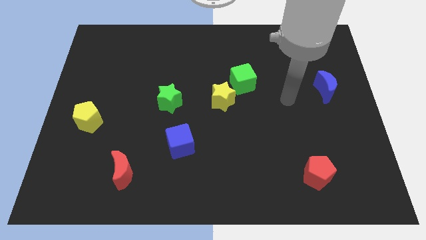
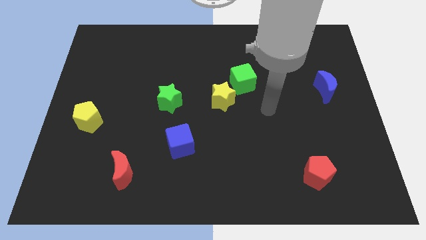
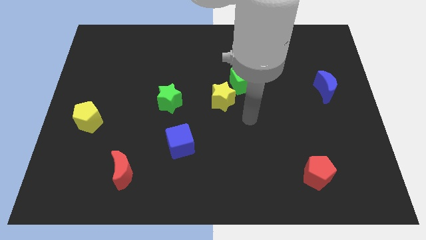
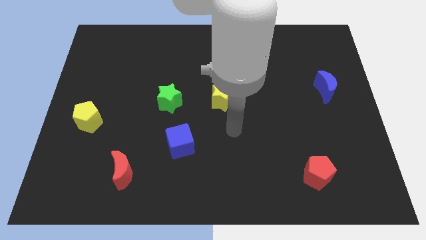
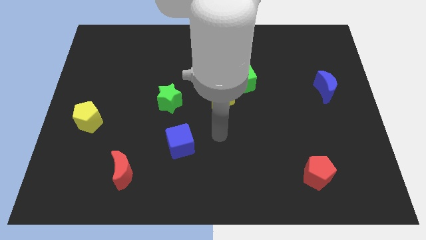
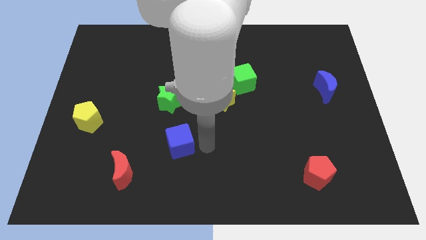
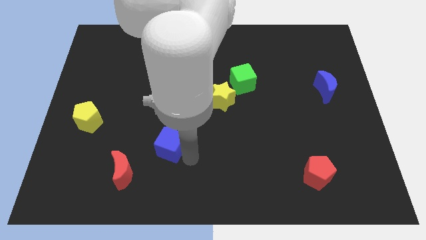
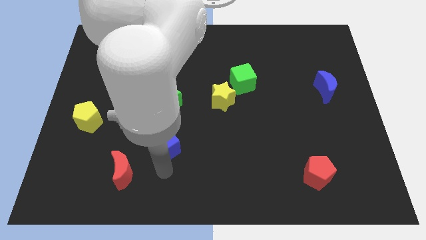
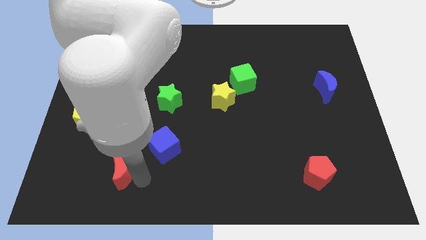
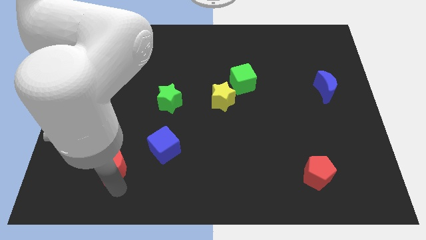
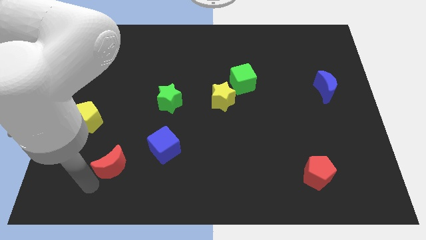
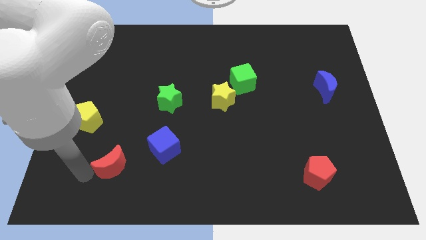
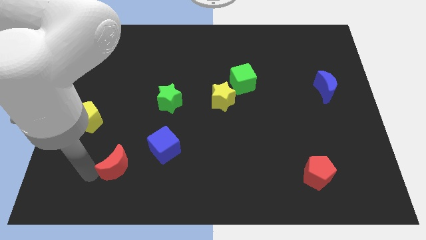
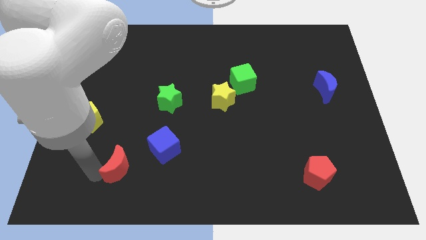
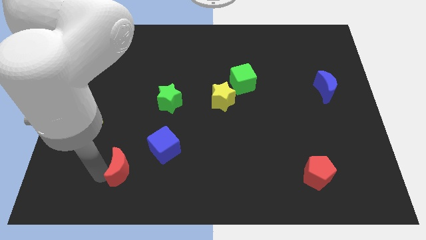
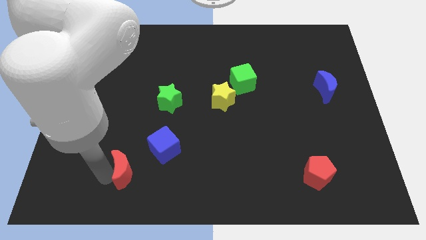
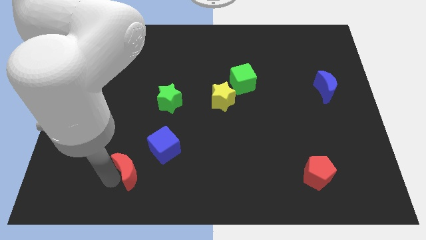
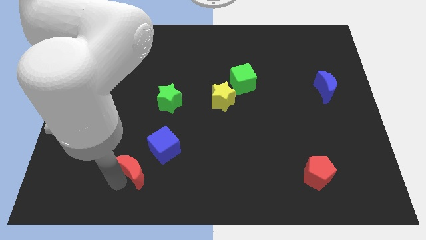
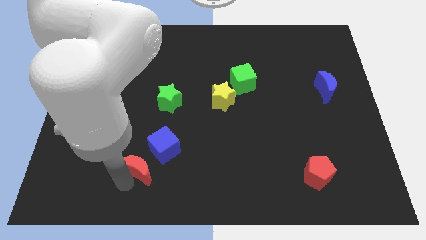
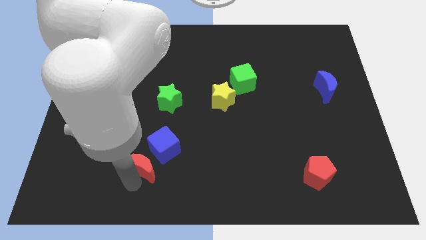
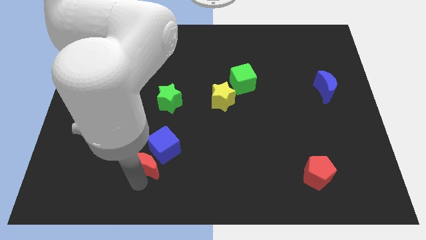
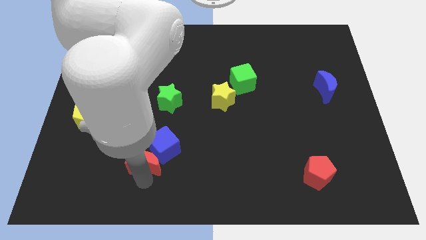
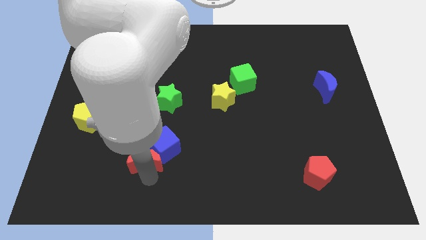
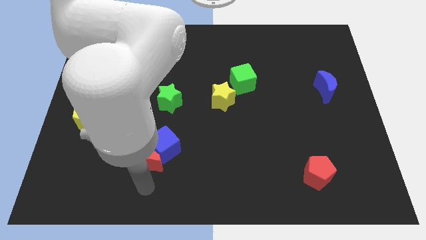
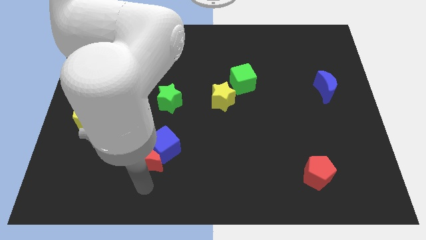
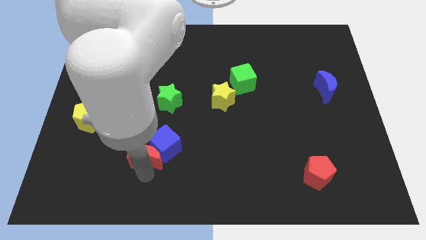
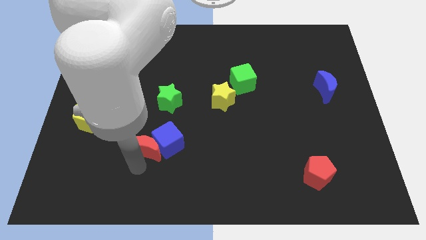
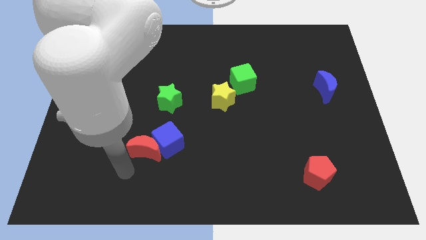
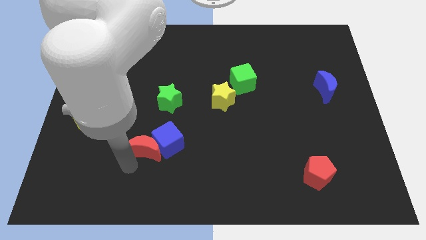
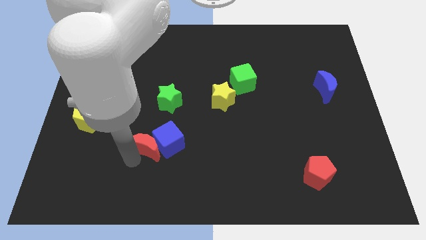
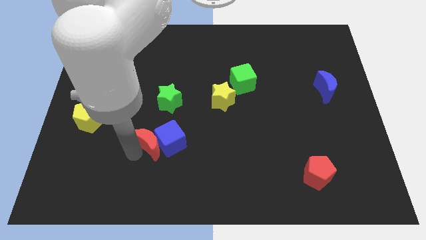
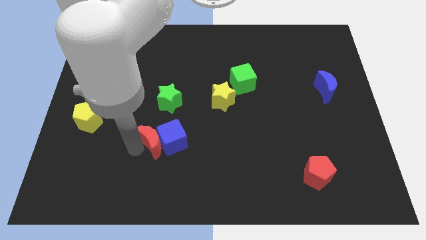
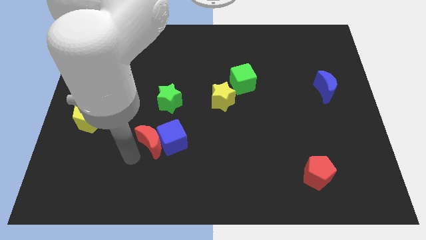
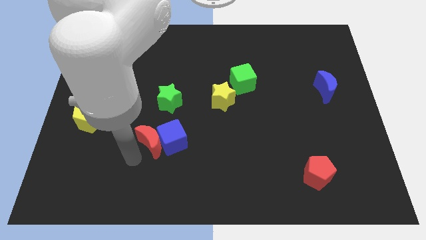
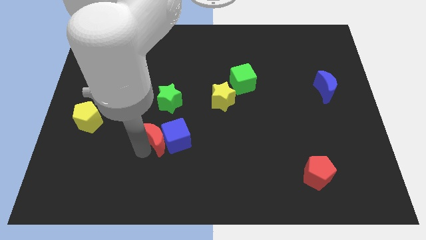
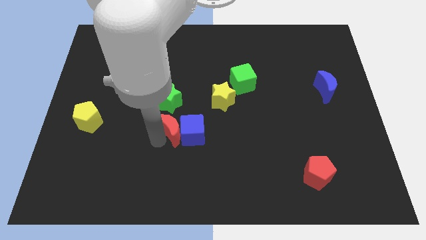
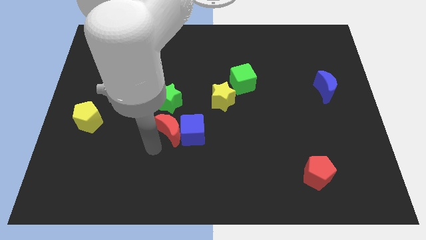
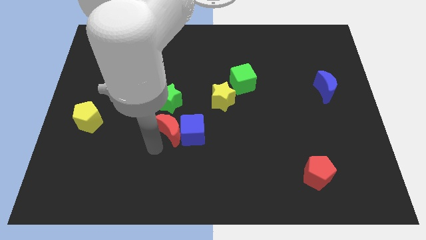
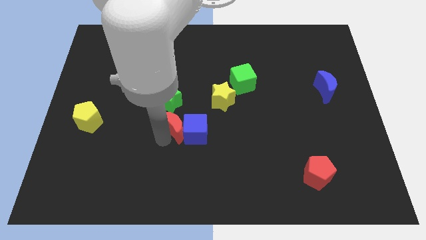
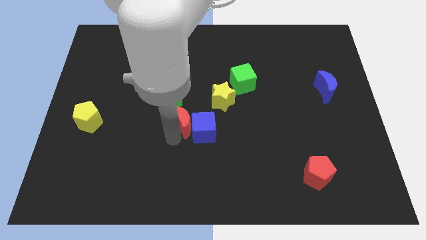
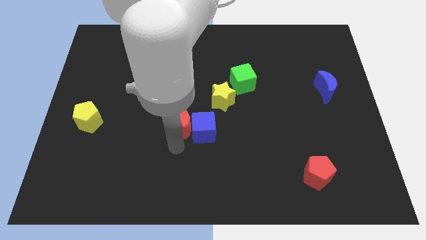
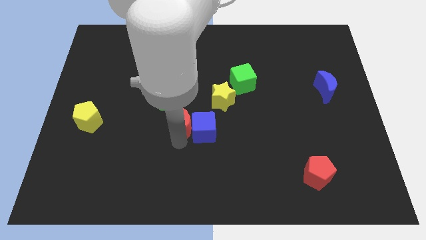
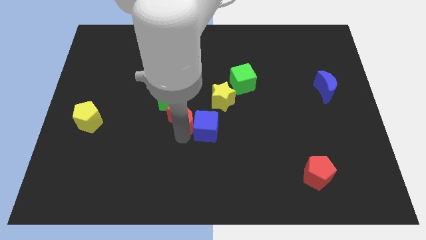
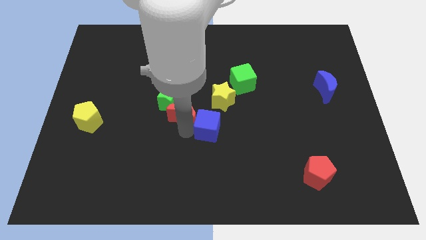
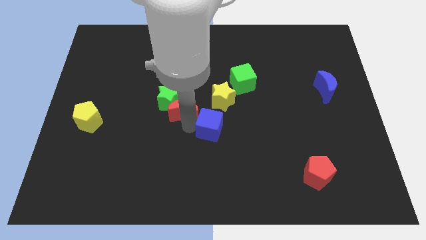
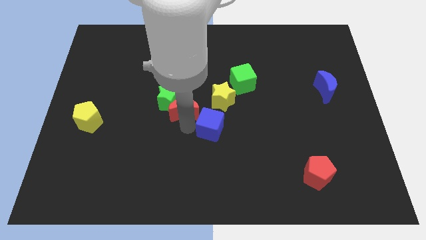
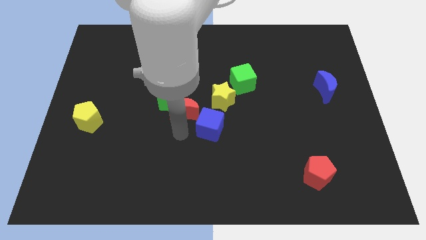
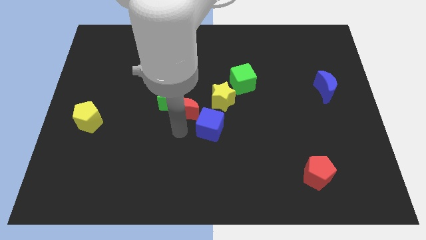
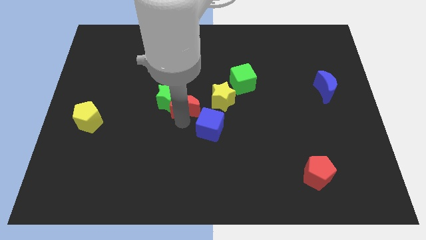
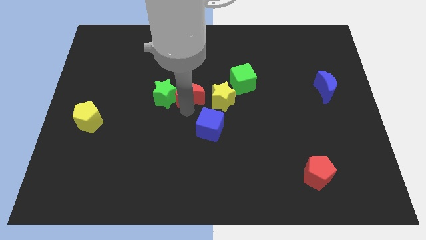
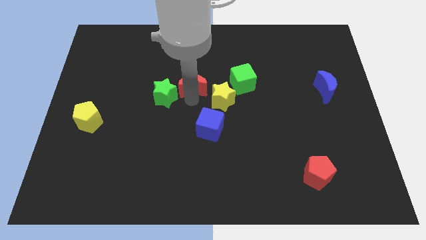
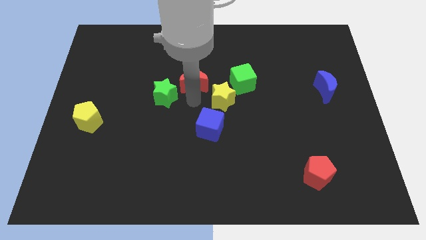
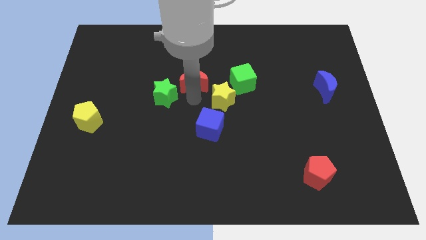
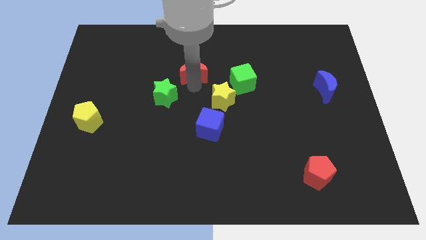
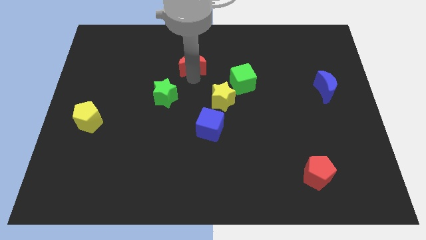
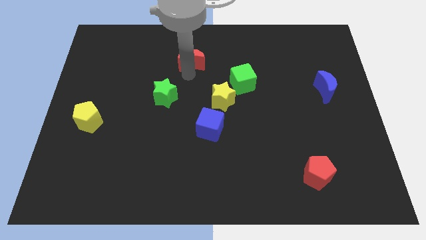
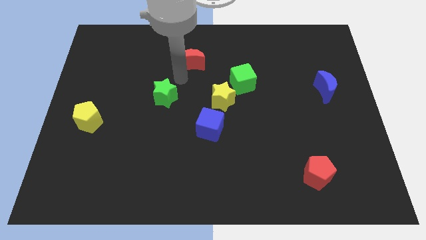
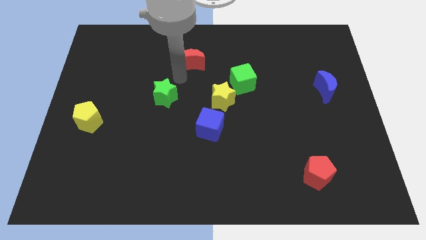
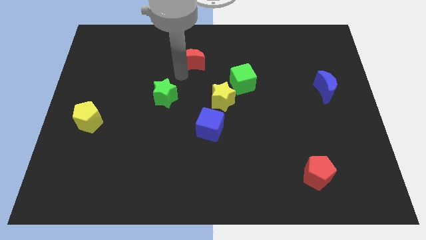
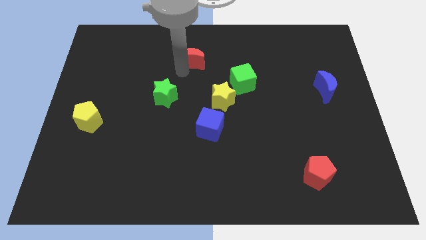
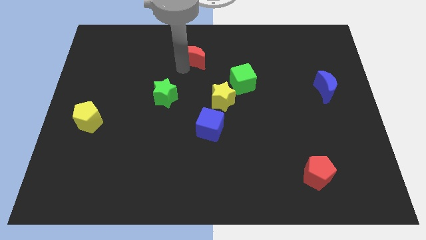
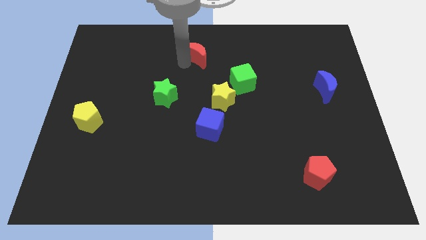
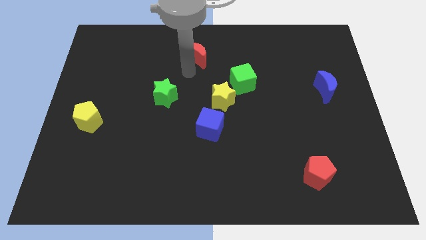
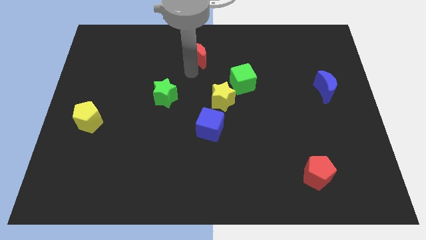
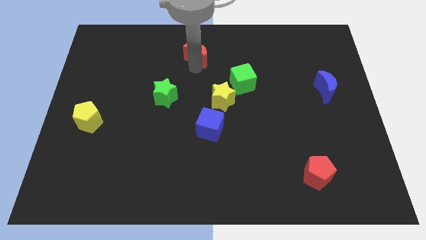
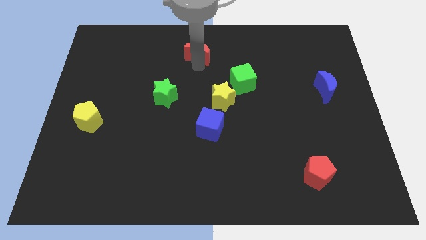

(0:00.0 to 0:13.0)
move the red moon to the towards your base
